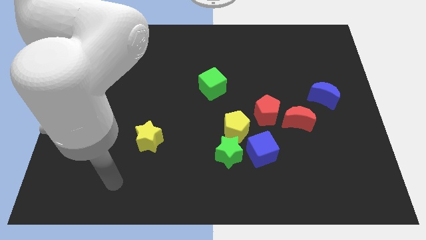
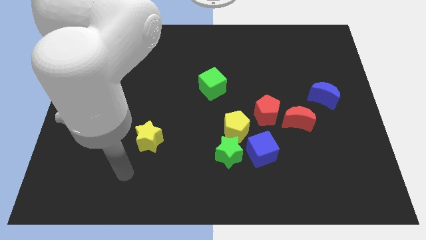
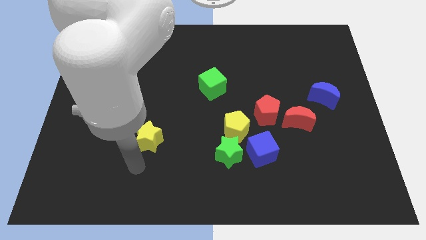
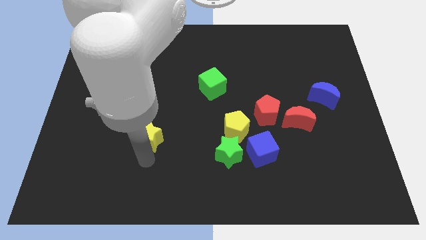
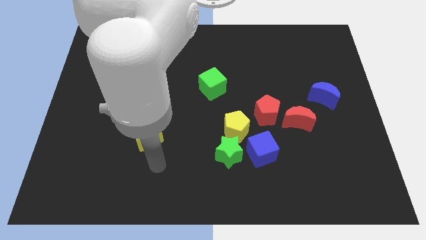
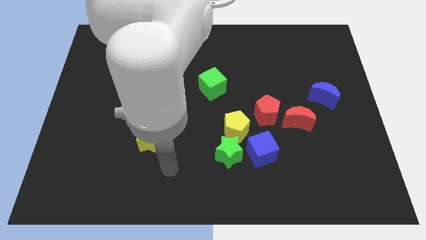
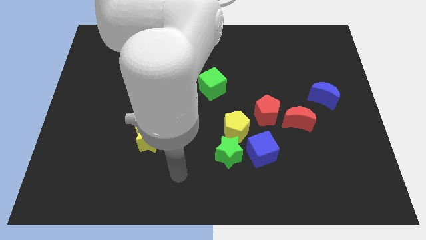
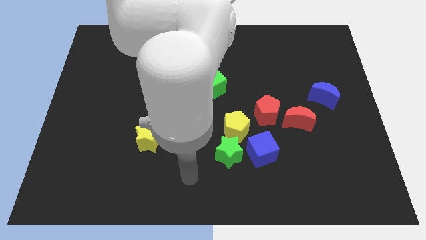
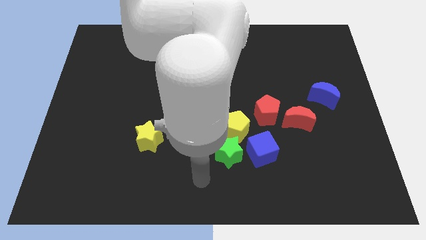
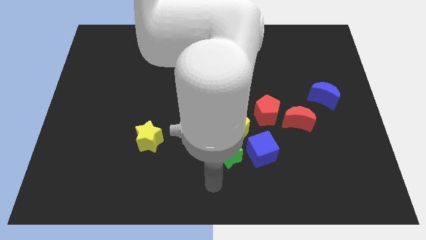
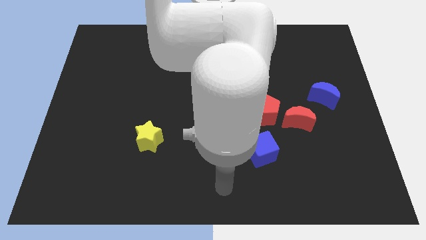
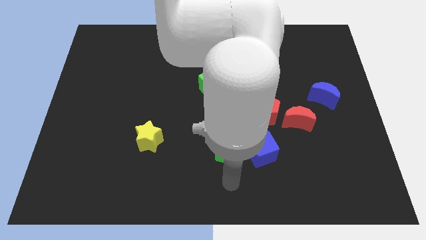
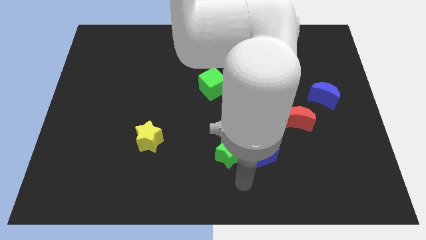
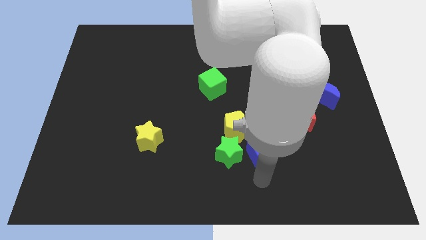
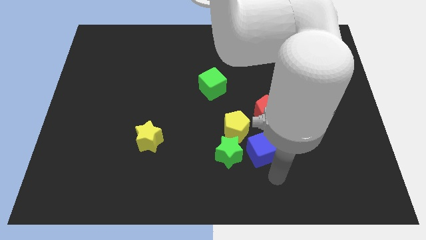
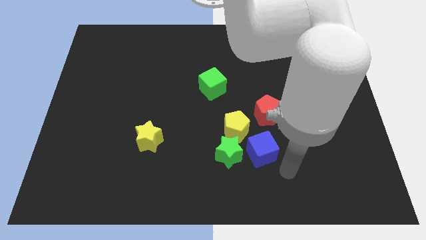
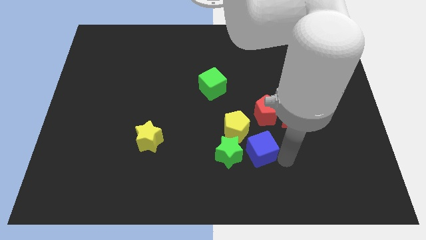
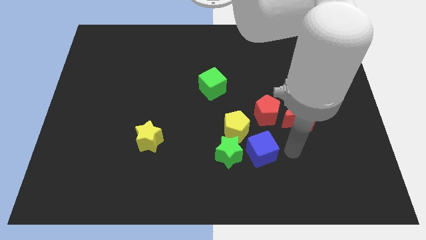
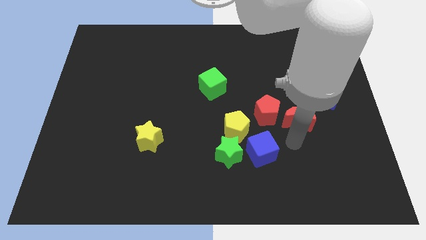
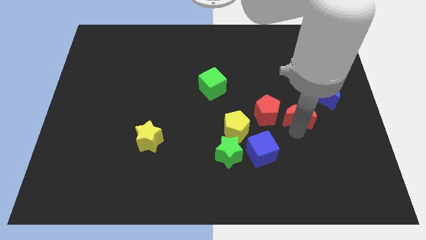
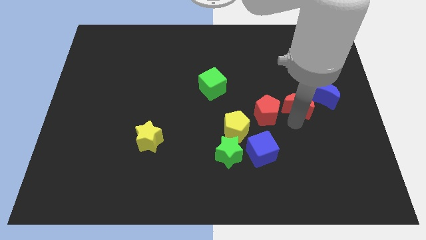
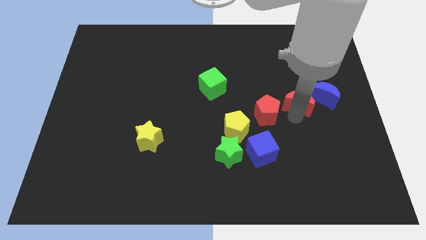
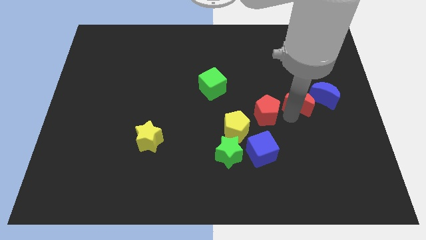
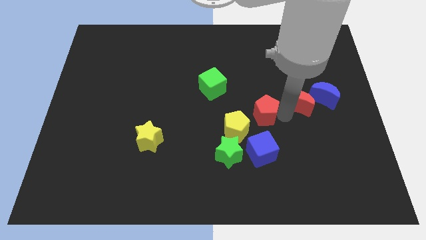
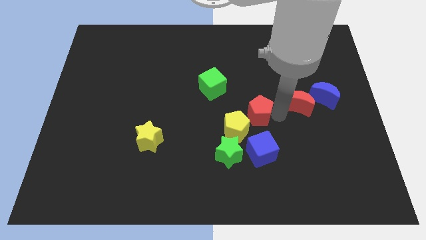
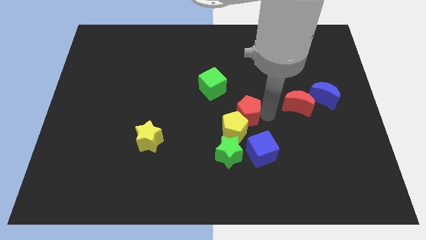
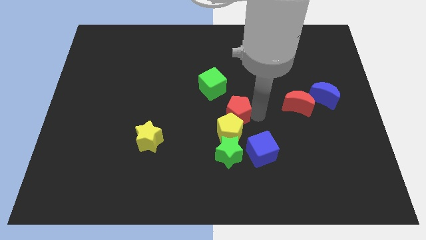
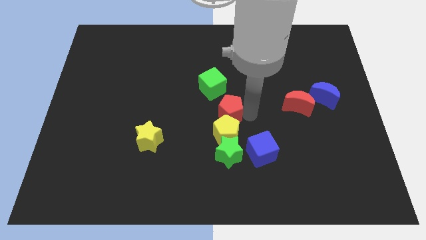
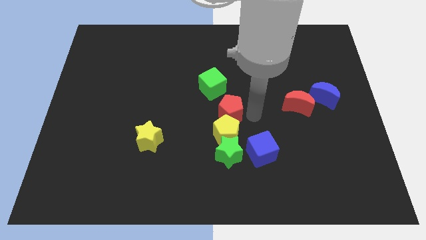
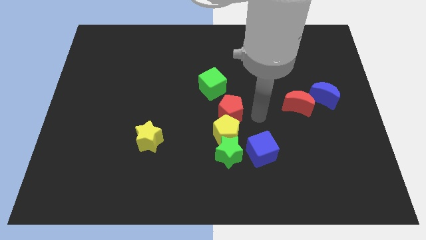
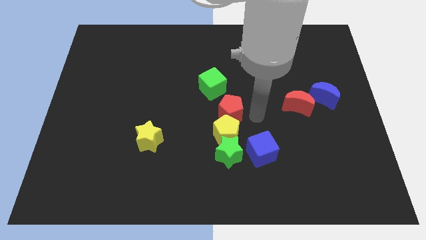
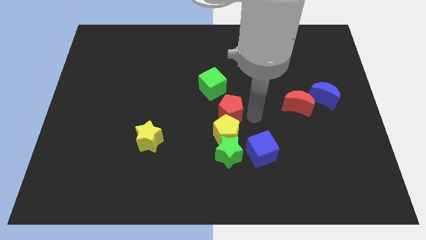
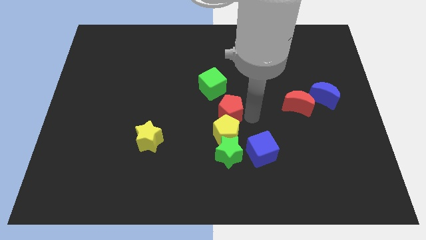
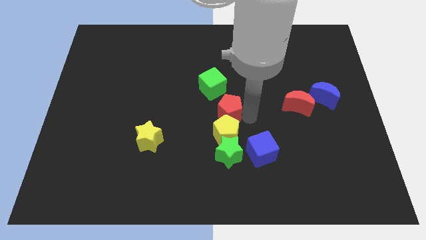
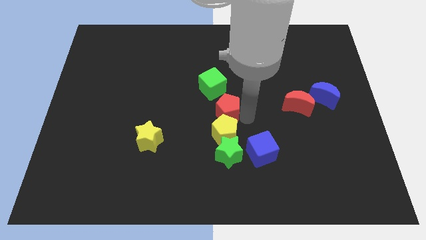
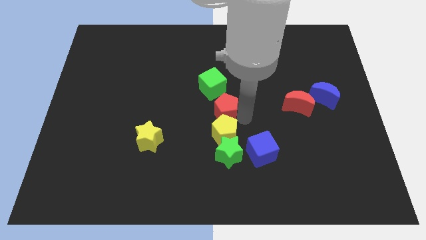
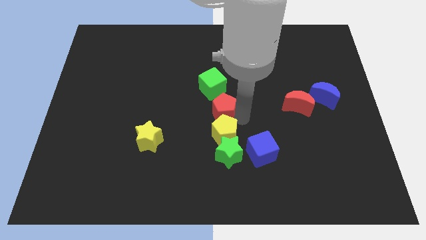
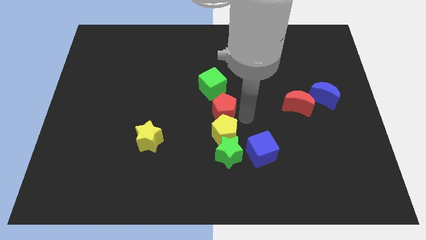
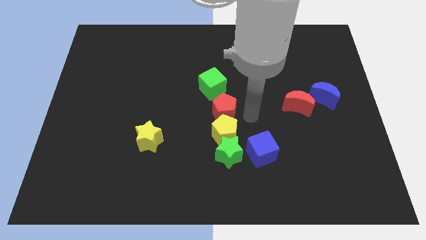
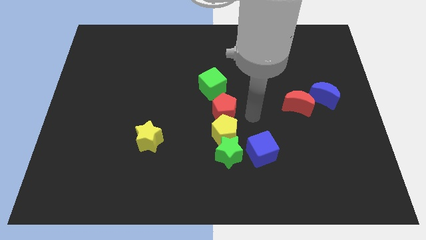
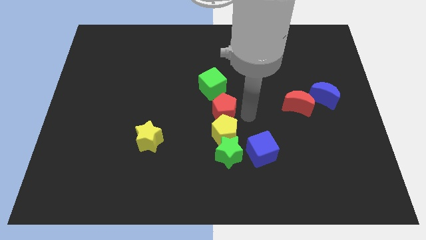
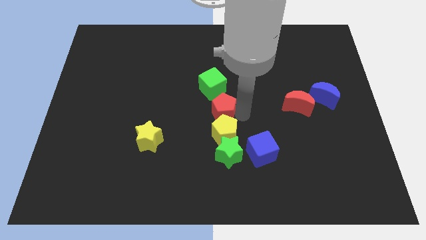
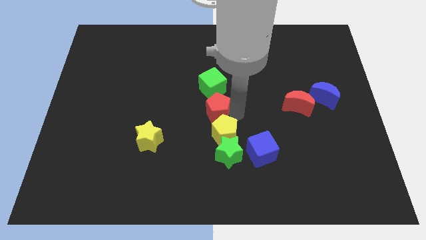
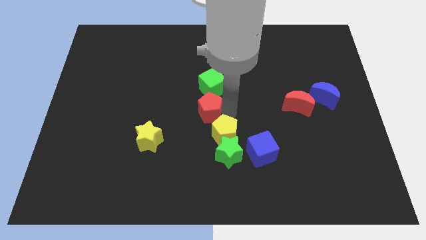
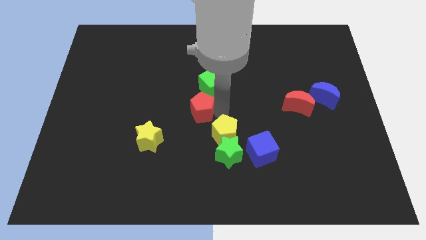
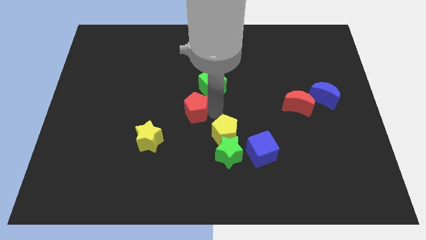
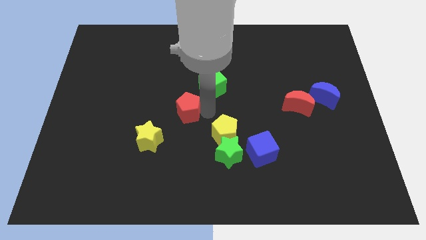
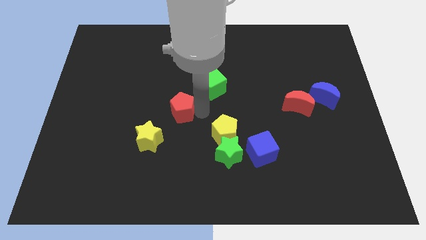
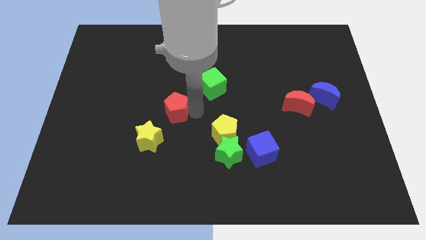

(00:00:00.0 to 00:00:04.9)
push the red pentagon left

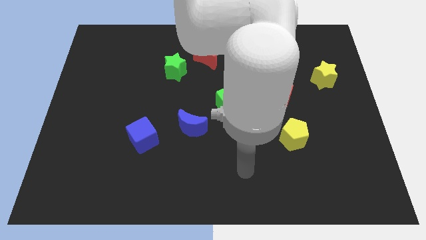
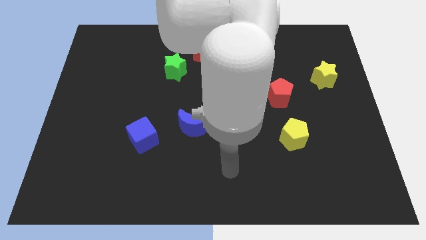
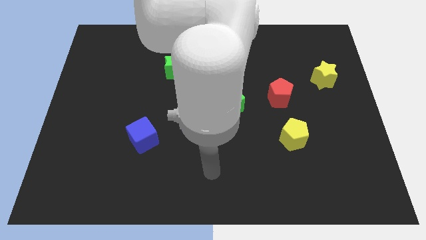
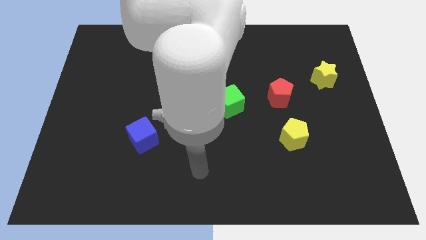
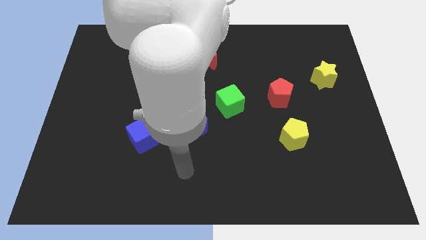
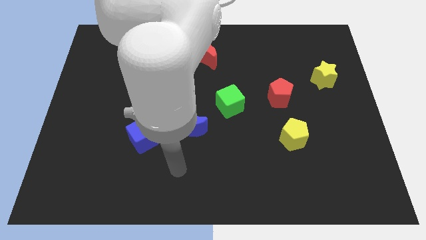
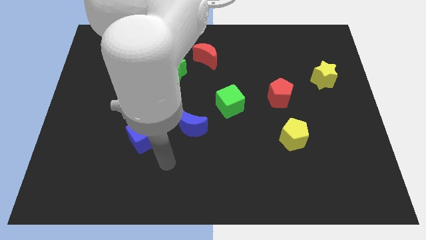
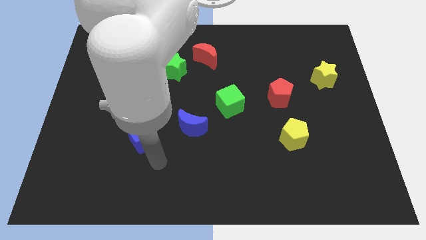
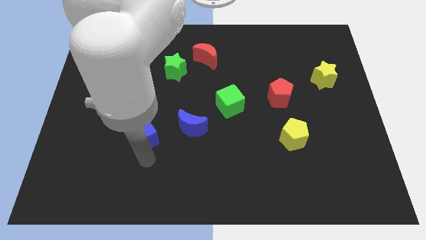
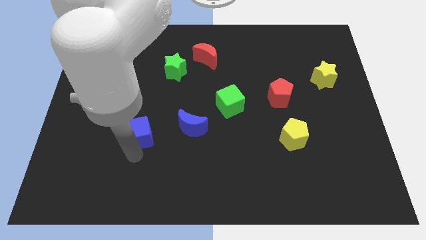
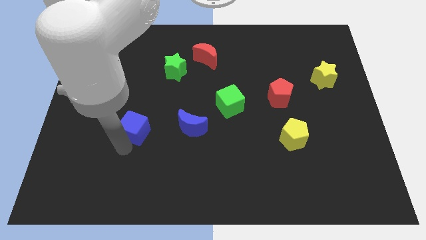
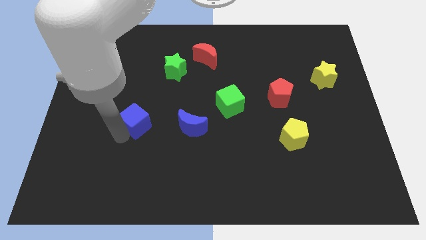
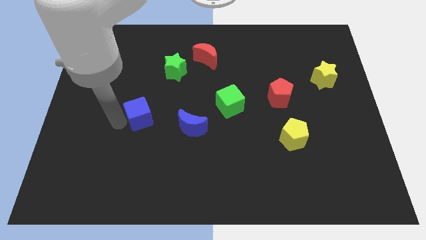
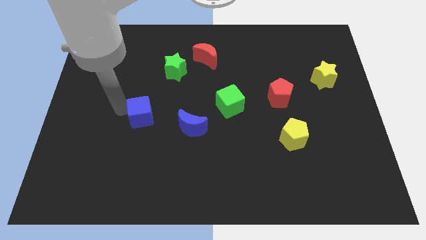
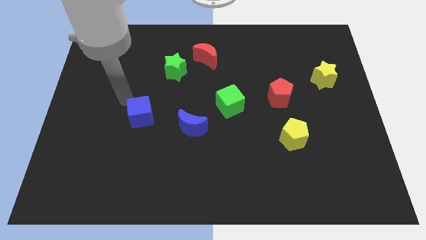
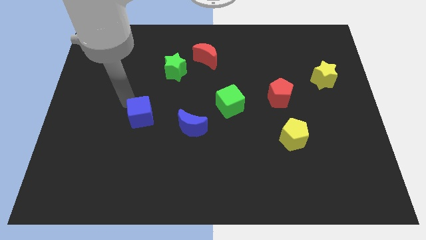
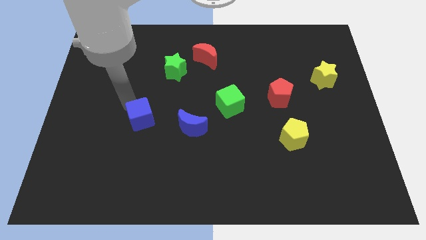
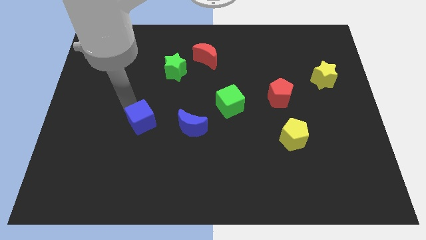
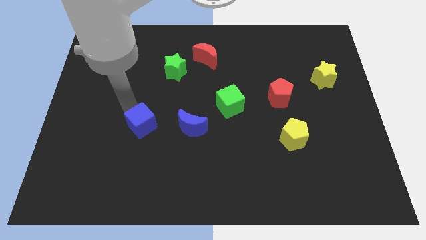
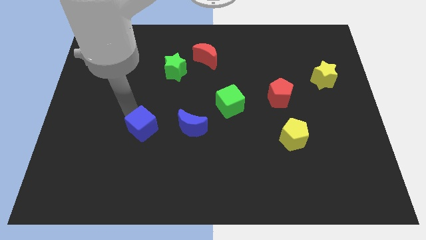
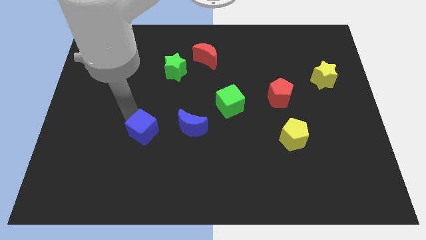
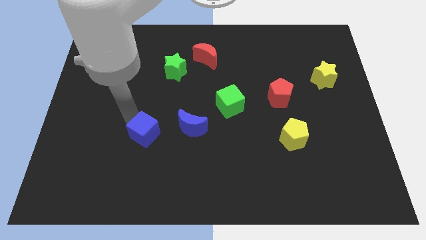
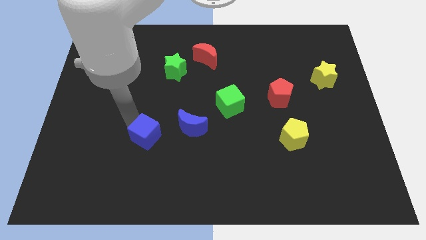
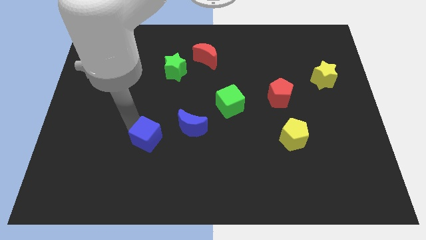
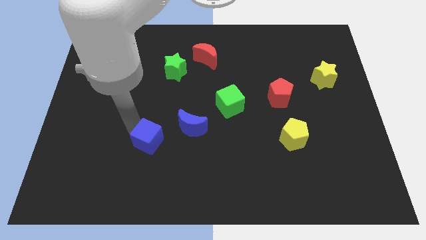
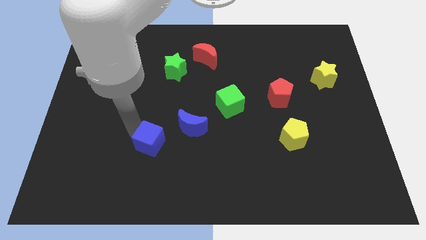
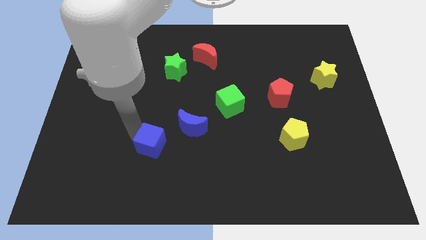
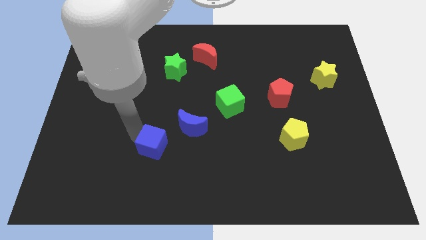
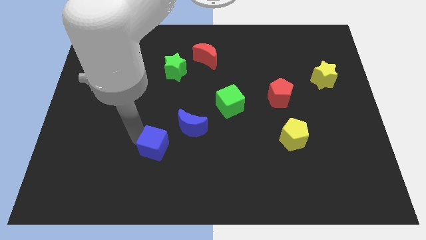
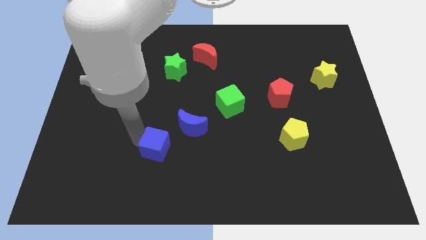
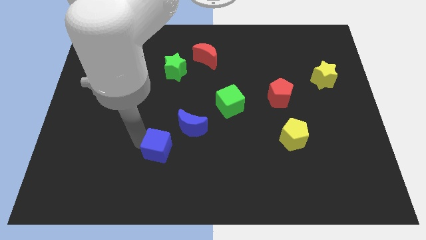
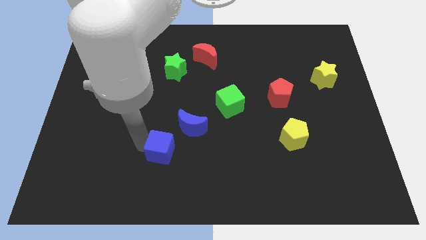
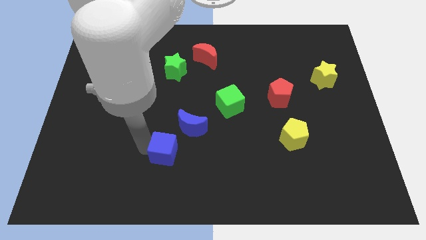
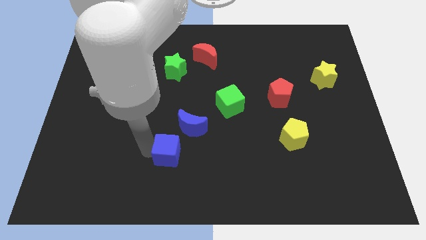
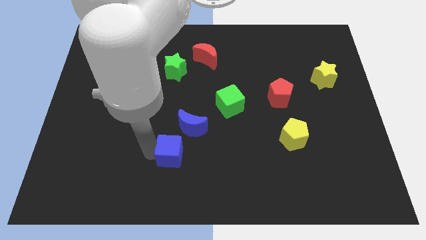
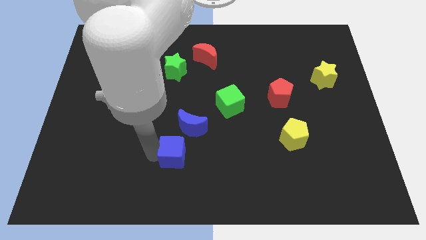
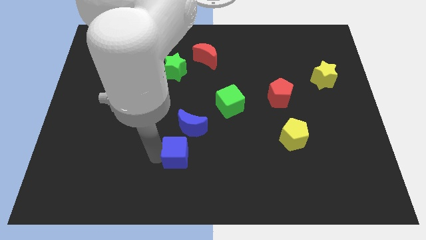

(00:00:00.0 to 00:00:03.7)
move the blue cube slightly to the right
